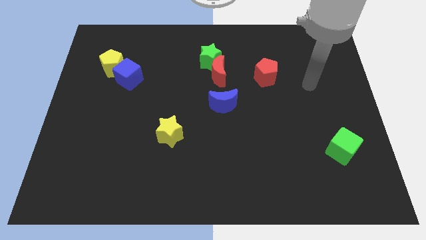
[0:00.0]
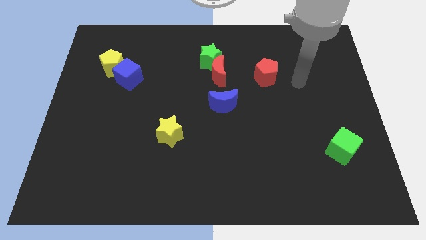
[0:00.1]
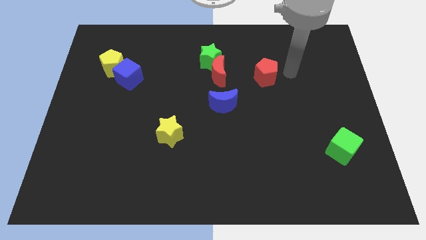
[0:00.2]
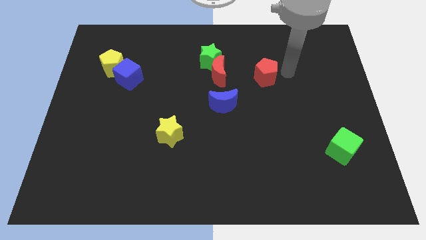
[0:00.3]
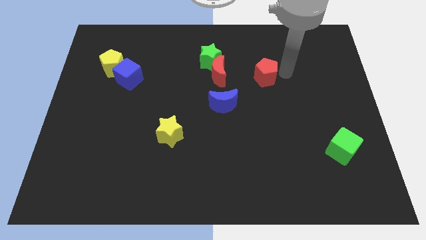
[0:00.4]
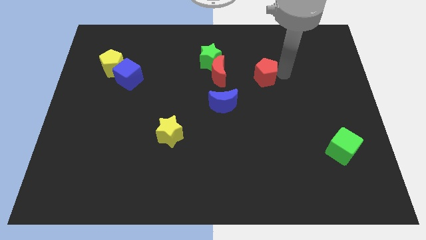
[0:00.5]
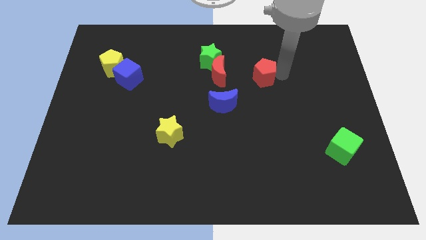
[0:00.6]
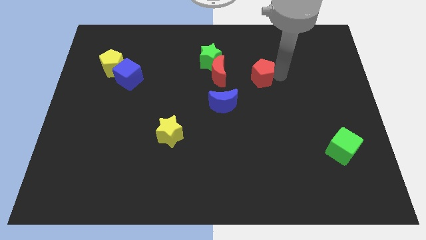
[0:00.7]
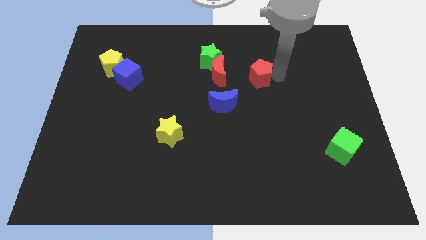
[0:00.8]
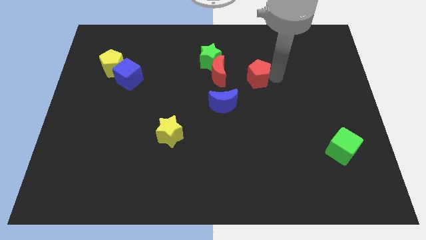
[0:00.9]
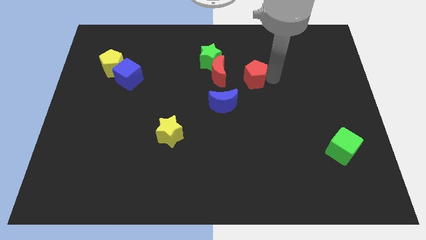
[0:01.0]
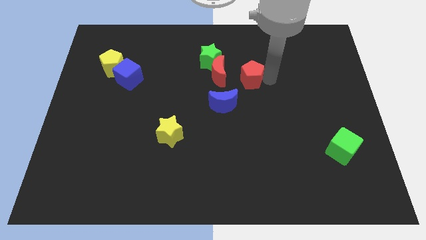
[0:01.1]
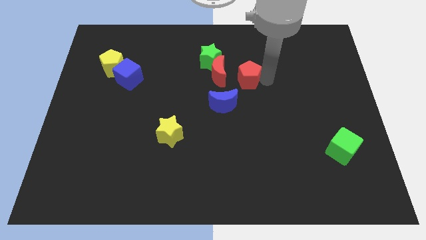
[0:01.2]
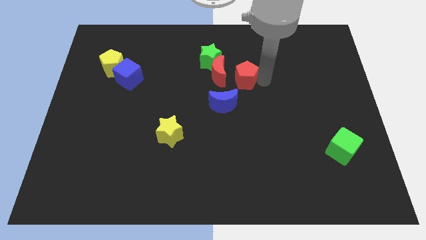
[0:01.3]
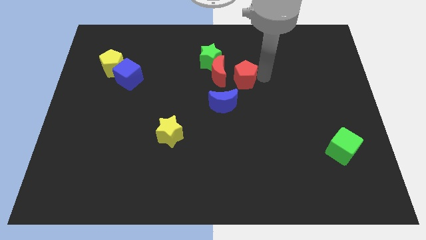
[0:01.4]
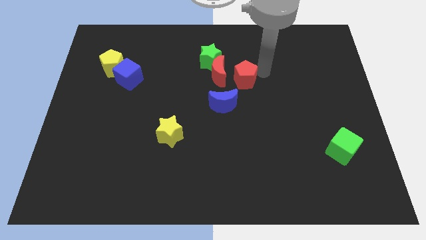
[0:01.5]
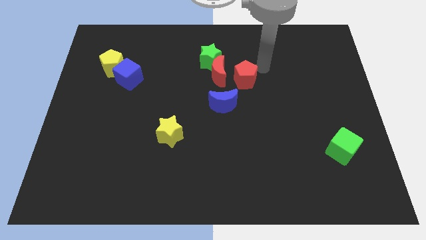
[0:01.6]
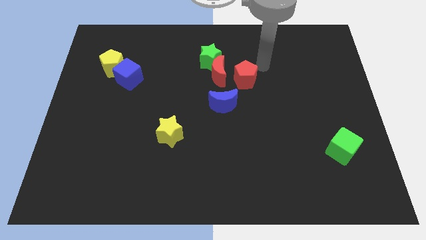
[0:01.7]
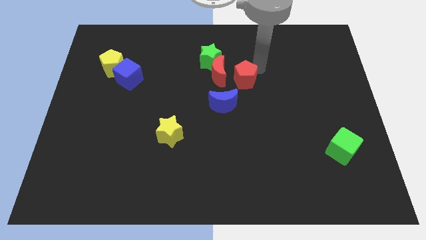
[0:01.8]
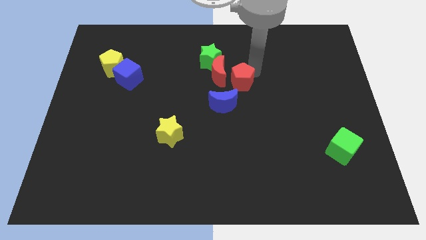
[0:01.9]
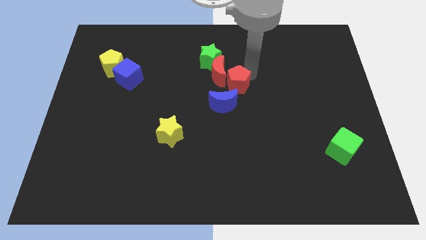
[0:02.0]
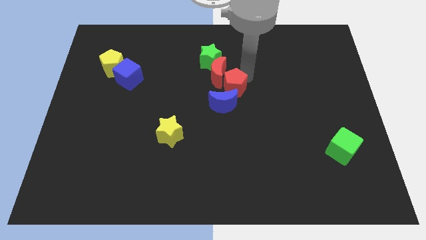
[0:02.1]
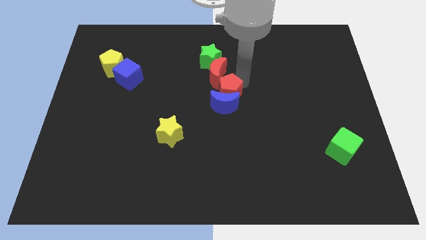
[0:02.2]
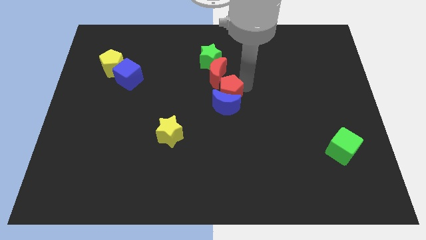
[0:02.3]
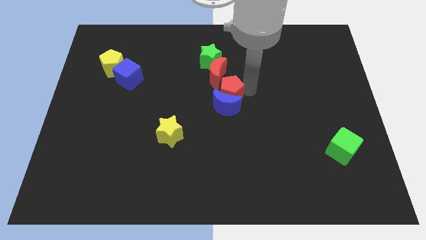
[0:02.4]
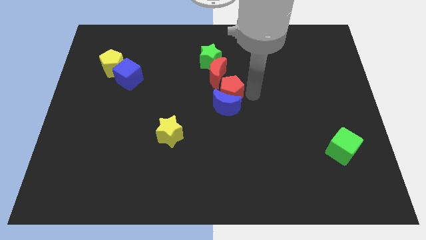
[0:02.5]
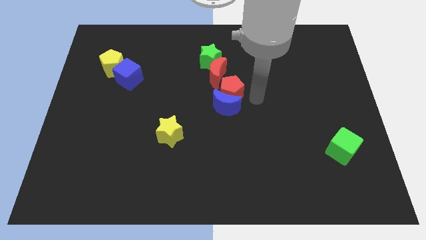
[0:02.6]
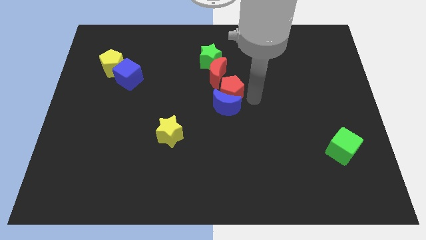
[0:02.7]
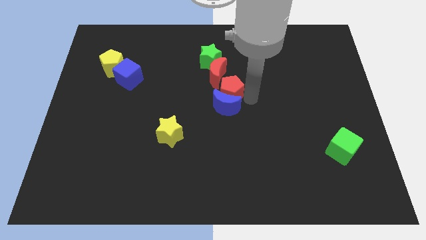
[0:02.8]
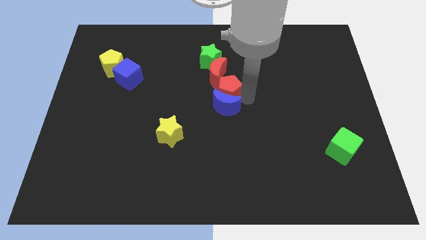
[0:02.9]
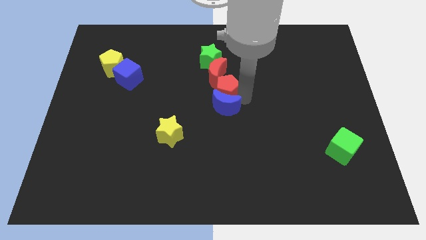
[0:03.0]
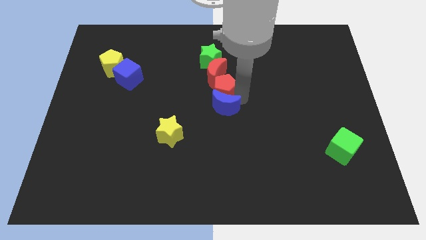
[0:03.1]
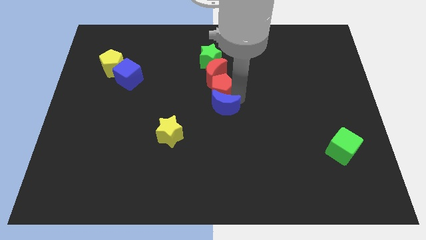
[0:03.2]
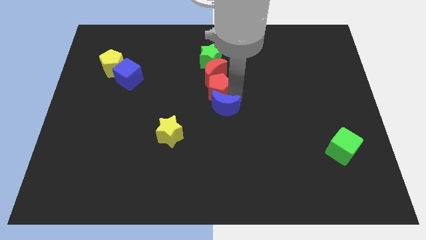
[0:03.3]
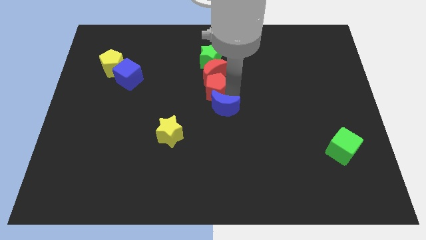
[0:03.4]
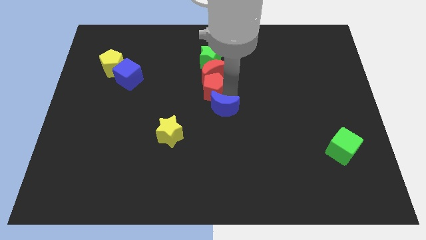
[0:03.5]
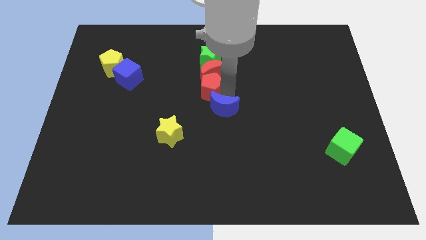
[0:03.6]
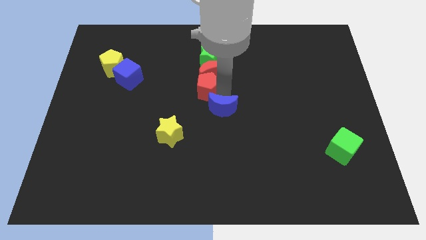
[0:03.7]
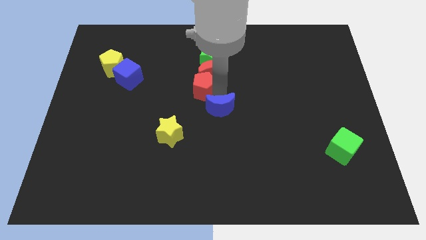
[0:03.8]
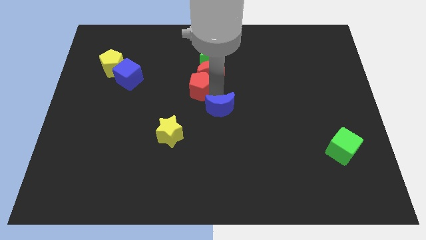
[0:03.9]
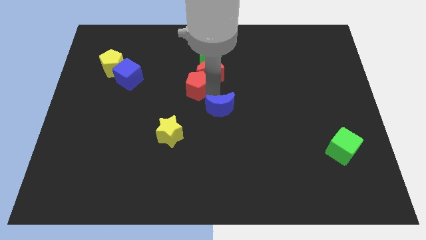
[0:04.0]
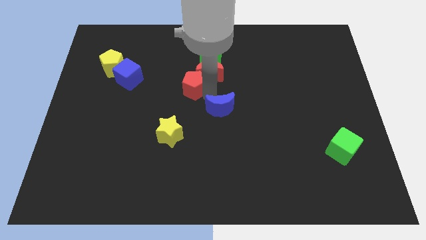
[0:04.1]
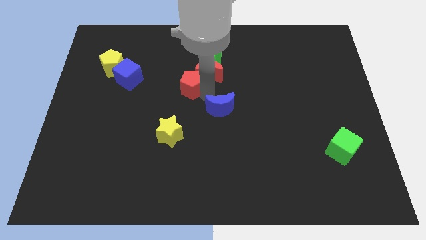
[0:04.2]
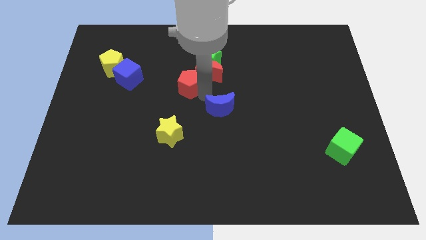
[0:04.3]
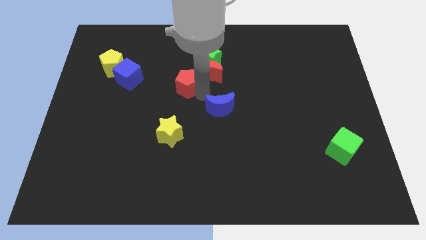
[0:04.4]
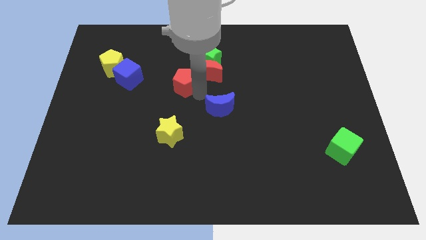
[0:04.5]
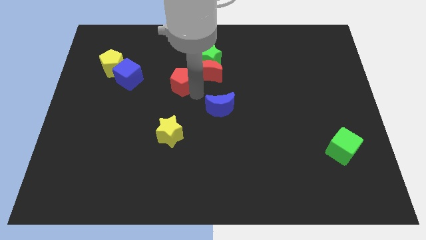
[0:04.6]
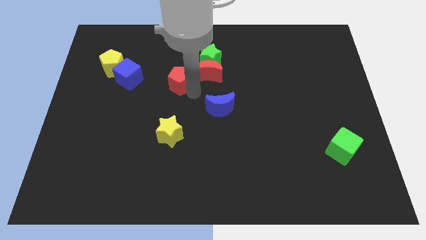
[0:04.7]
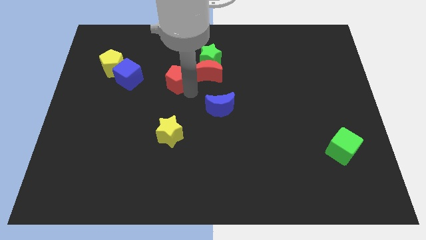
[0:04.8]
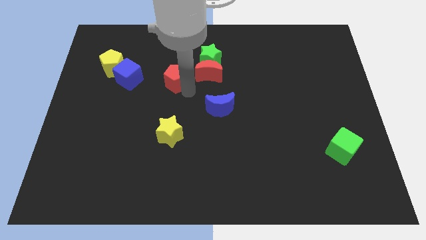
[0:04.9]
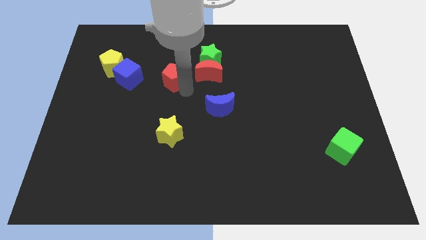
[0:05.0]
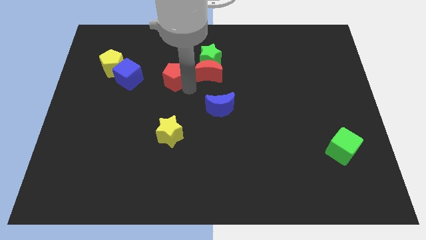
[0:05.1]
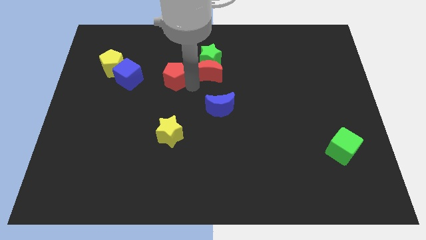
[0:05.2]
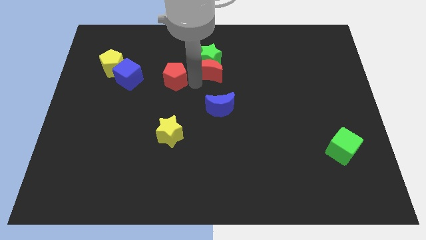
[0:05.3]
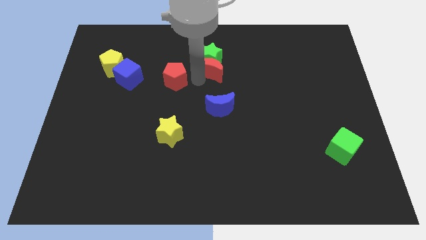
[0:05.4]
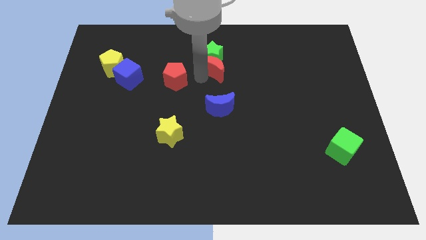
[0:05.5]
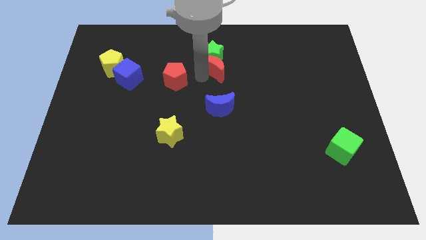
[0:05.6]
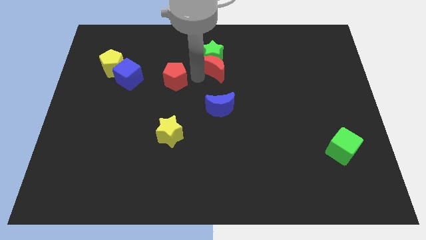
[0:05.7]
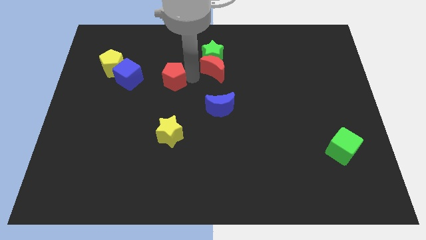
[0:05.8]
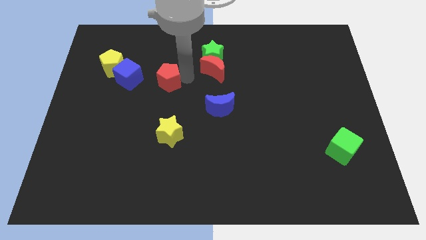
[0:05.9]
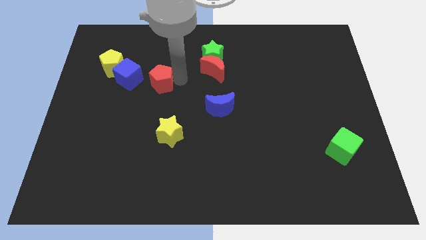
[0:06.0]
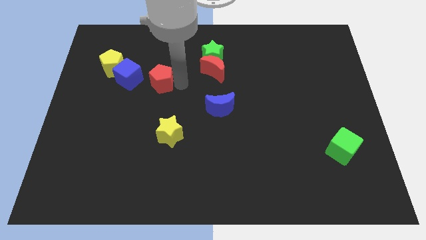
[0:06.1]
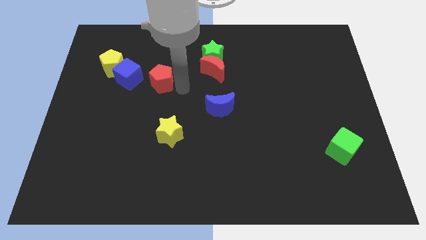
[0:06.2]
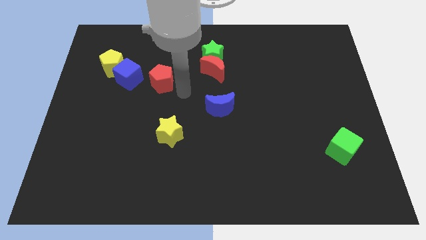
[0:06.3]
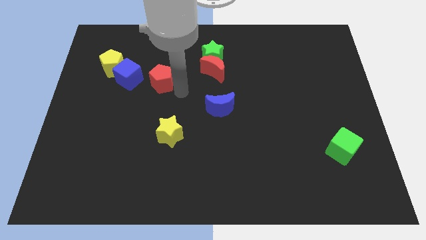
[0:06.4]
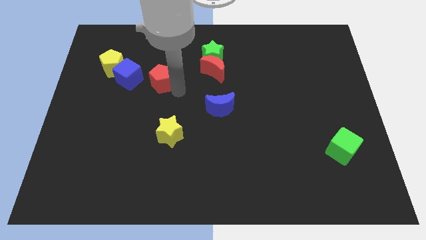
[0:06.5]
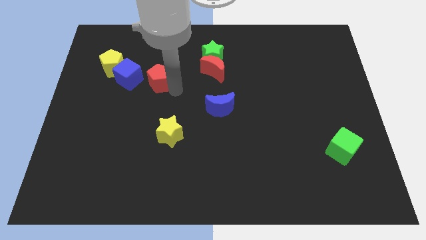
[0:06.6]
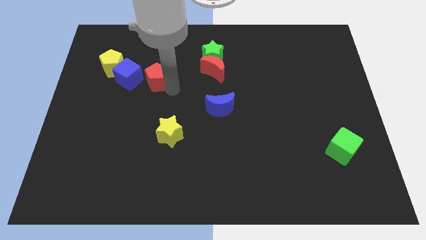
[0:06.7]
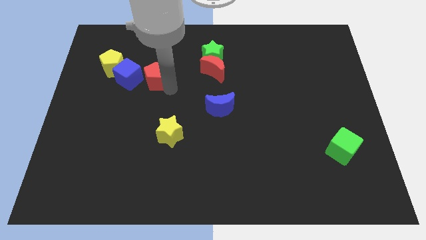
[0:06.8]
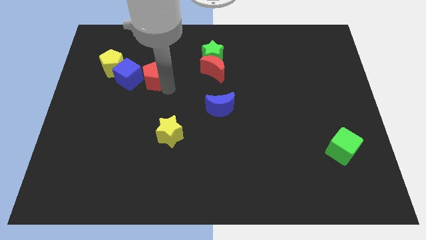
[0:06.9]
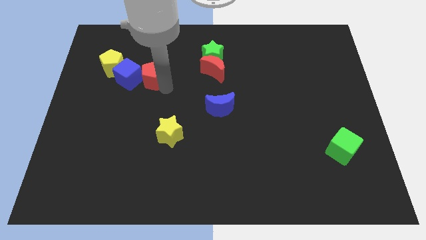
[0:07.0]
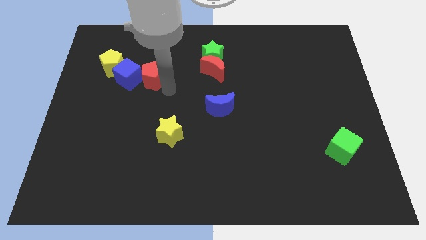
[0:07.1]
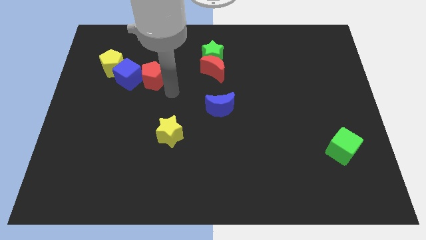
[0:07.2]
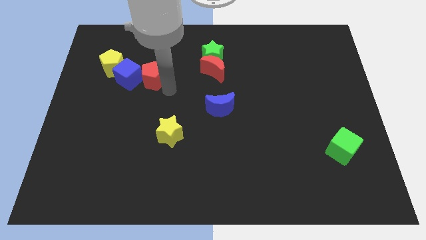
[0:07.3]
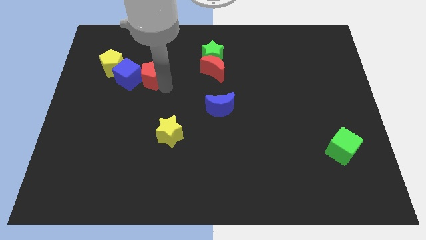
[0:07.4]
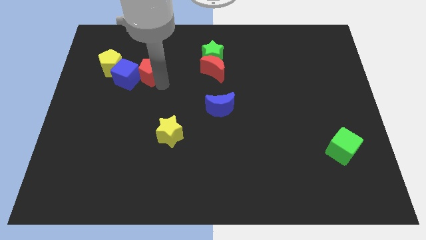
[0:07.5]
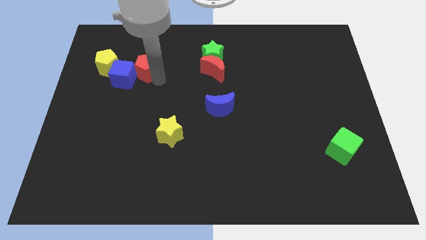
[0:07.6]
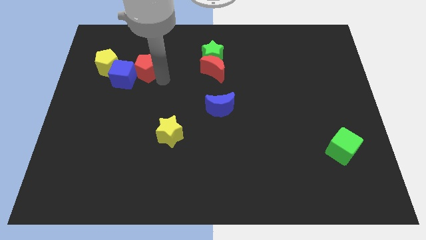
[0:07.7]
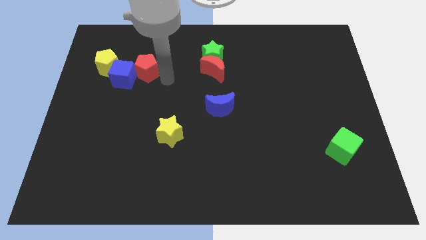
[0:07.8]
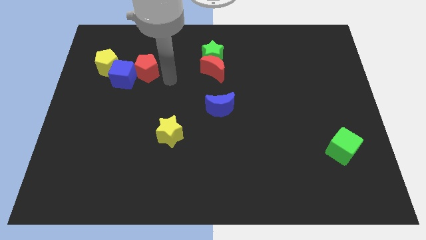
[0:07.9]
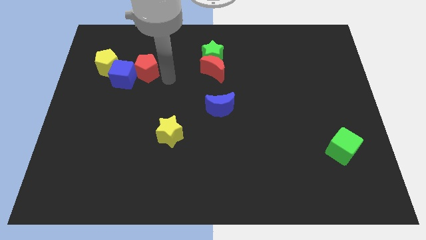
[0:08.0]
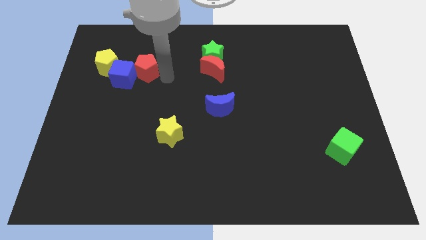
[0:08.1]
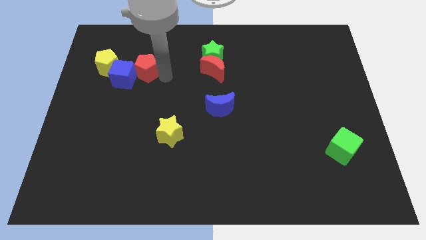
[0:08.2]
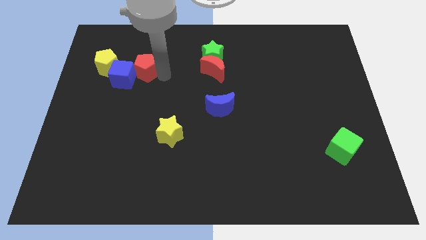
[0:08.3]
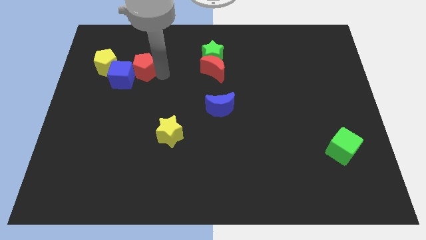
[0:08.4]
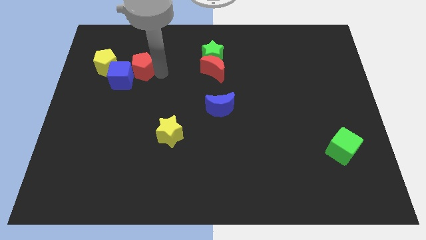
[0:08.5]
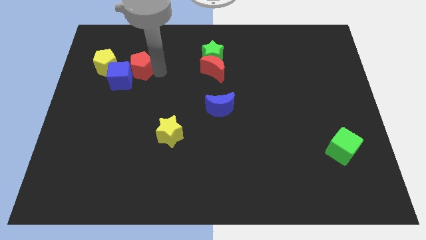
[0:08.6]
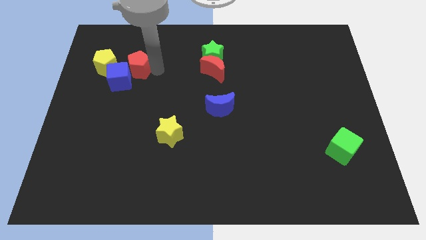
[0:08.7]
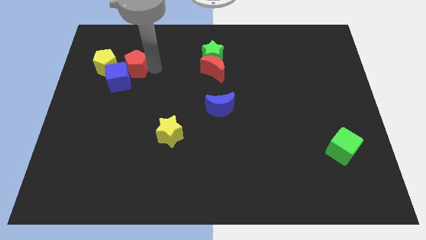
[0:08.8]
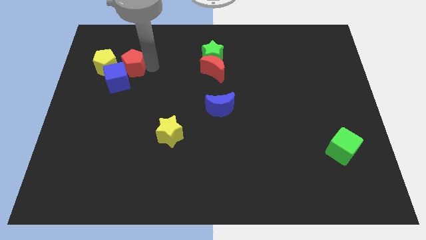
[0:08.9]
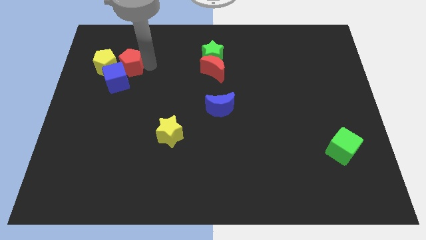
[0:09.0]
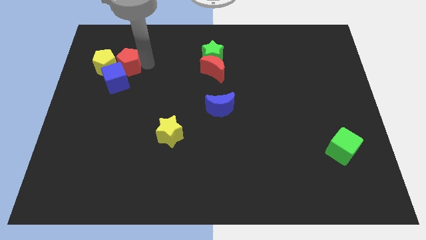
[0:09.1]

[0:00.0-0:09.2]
put the red pentagon close to the yellow pentagon
